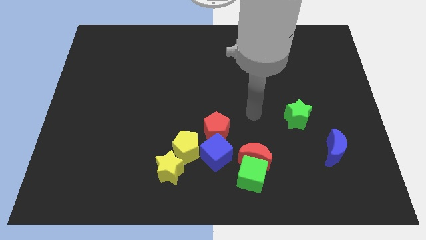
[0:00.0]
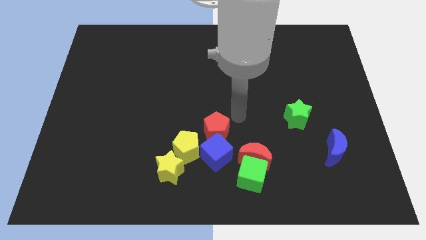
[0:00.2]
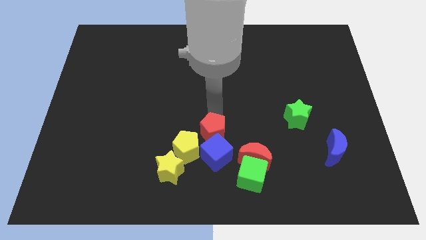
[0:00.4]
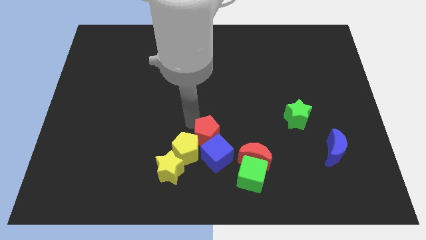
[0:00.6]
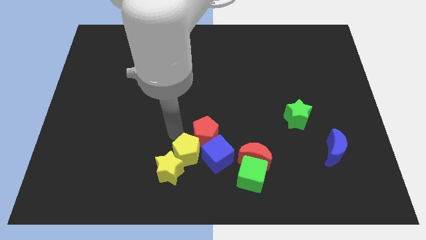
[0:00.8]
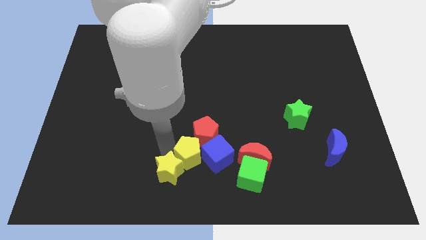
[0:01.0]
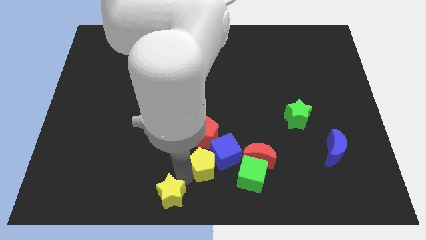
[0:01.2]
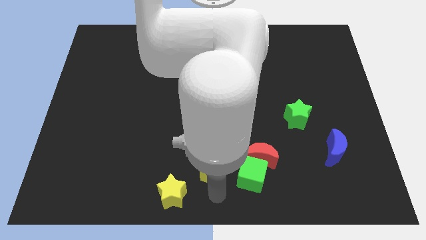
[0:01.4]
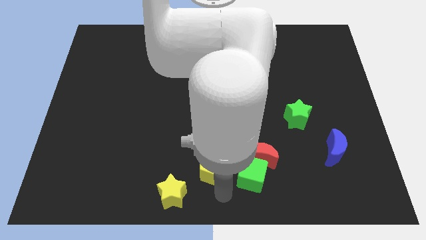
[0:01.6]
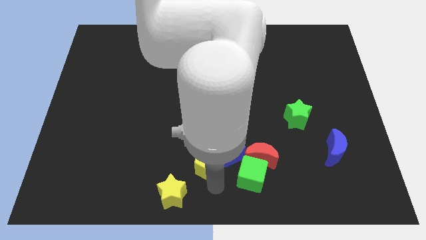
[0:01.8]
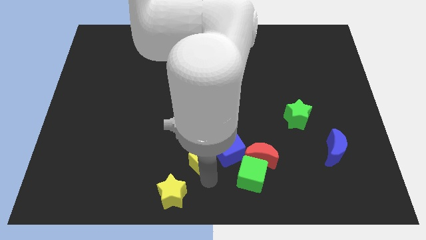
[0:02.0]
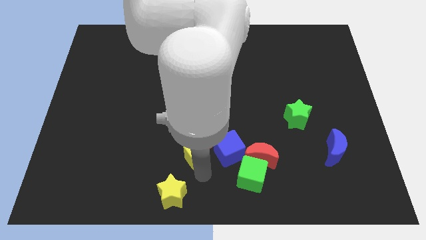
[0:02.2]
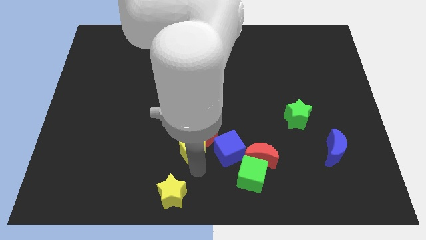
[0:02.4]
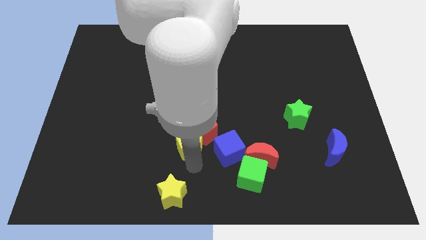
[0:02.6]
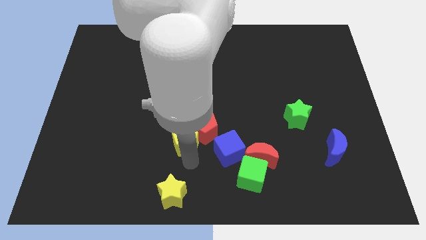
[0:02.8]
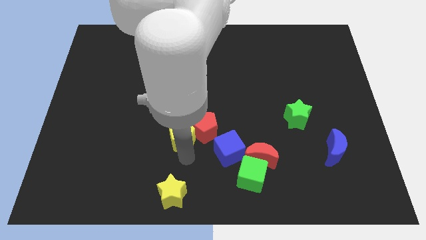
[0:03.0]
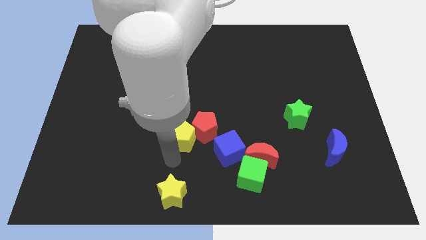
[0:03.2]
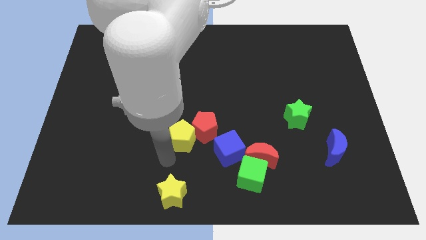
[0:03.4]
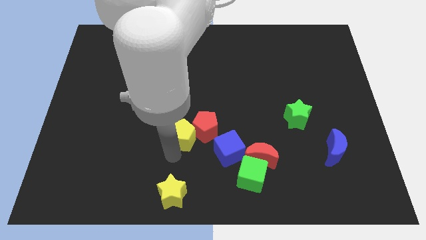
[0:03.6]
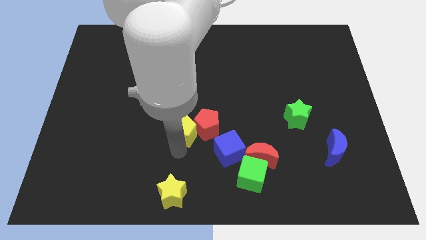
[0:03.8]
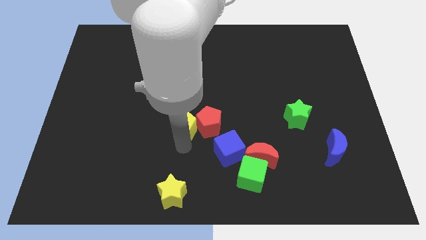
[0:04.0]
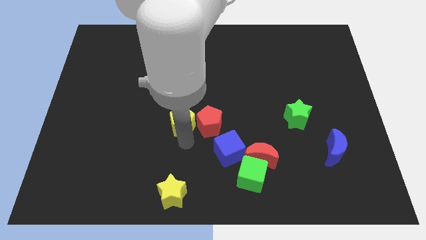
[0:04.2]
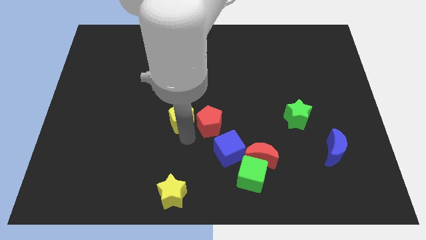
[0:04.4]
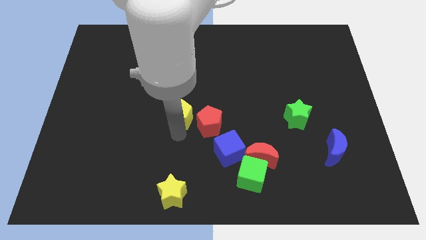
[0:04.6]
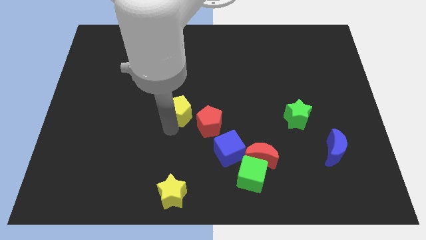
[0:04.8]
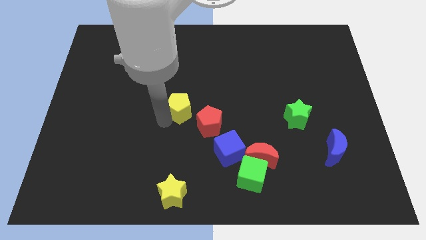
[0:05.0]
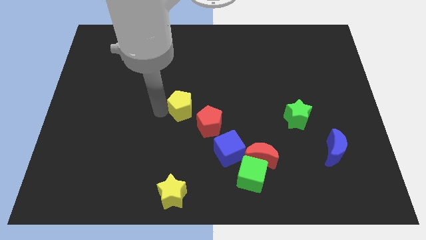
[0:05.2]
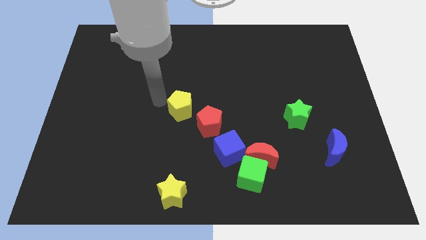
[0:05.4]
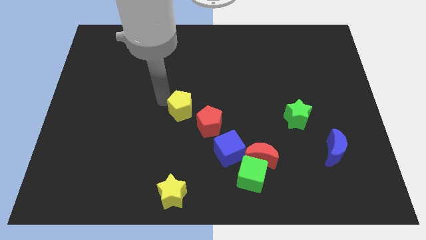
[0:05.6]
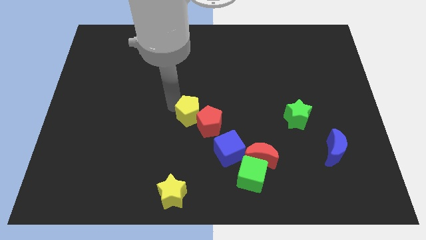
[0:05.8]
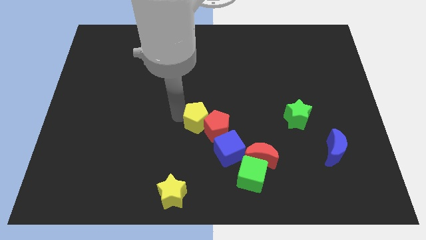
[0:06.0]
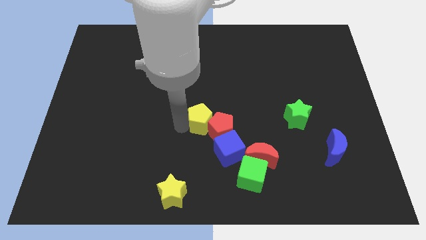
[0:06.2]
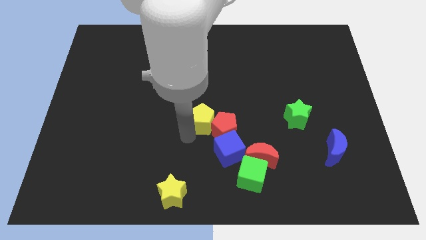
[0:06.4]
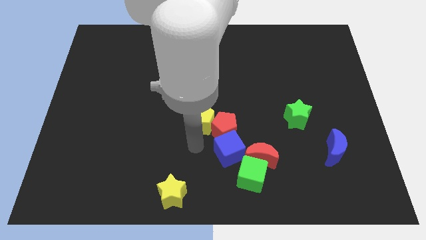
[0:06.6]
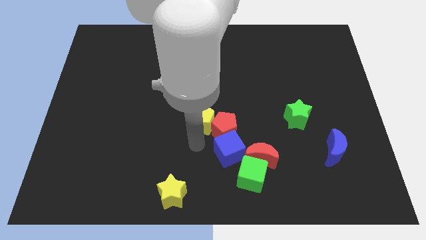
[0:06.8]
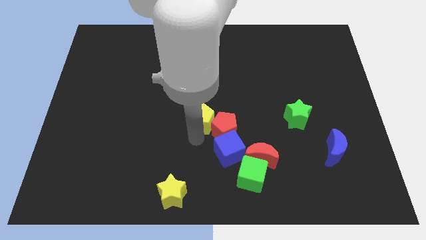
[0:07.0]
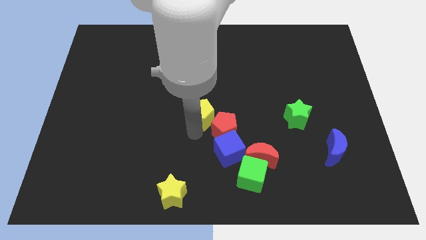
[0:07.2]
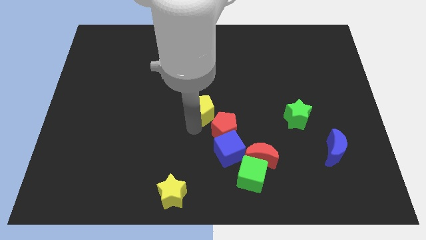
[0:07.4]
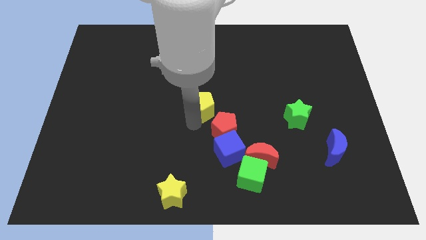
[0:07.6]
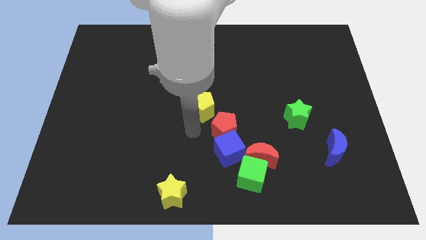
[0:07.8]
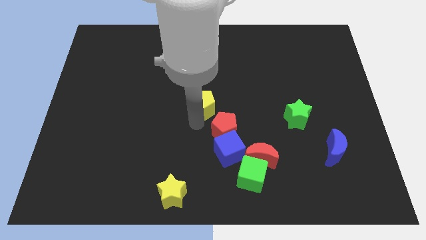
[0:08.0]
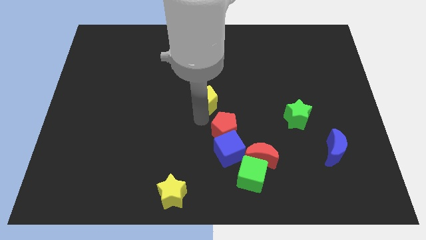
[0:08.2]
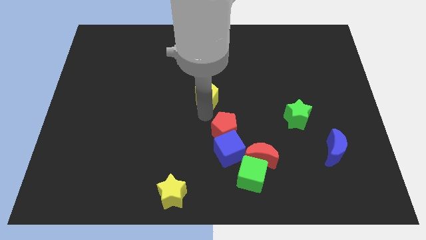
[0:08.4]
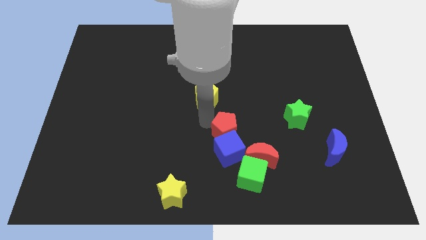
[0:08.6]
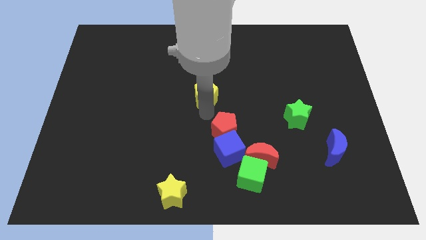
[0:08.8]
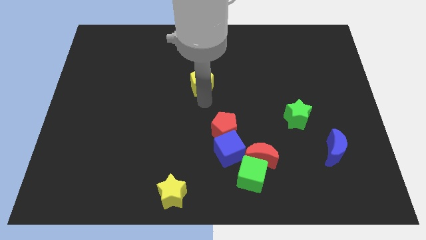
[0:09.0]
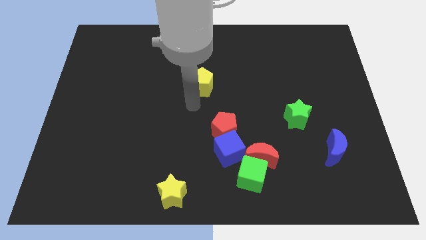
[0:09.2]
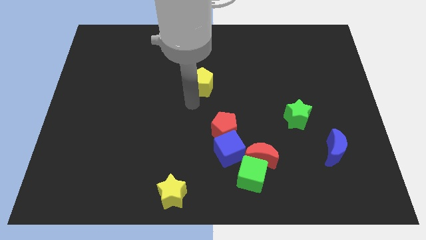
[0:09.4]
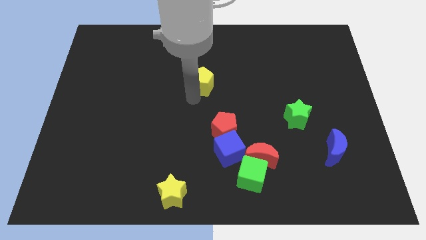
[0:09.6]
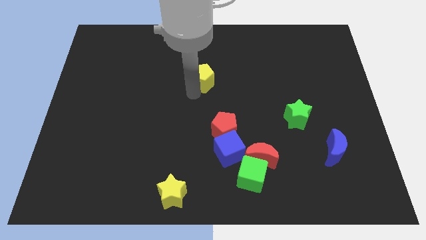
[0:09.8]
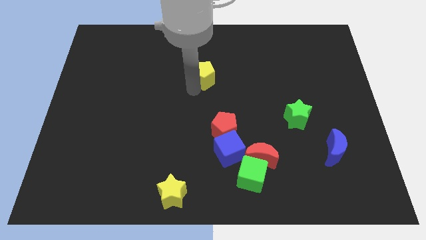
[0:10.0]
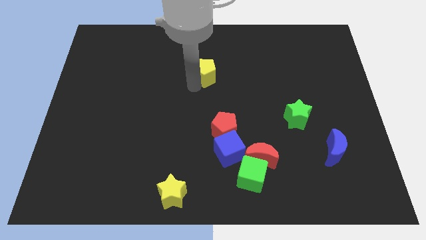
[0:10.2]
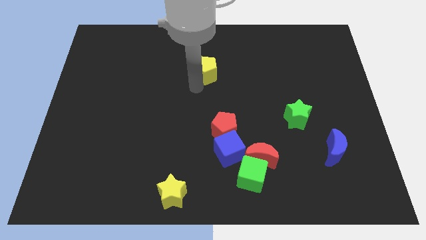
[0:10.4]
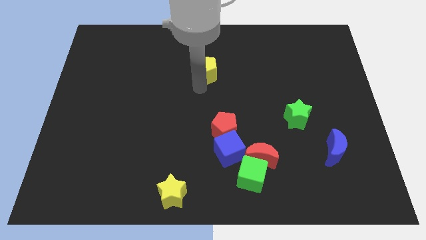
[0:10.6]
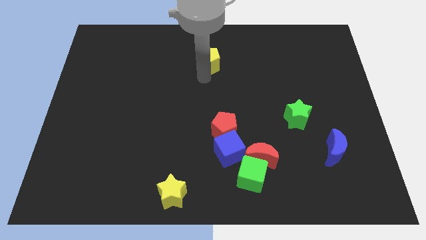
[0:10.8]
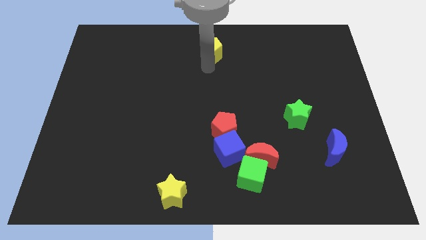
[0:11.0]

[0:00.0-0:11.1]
push the yellow pentagon to the towards your base

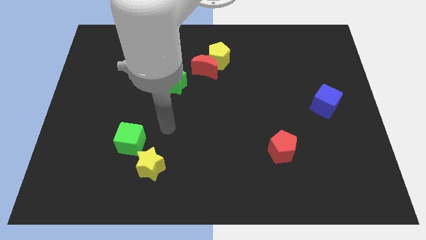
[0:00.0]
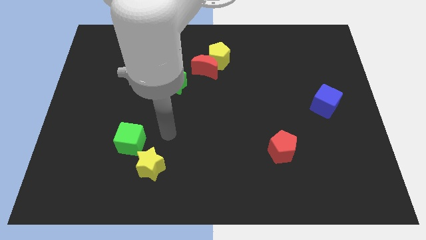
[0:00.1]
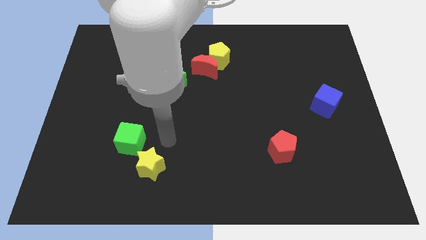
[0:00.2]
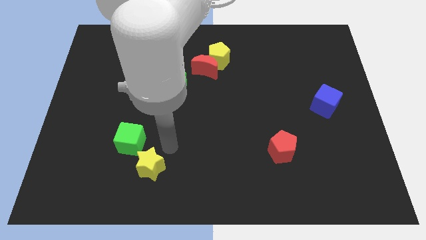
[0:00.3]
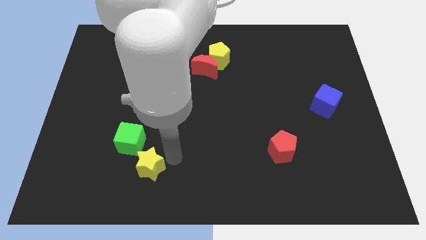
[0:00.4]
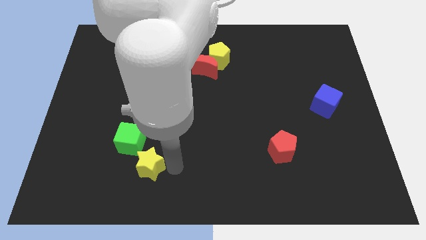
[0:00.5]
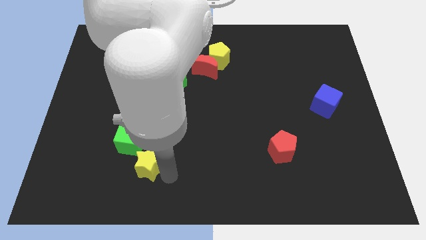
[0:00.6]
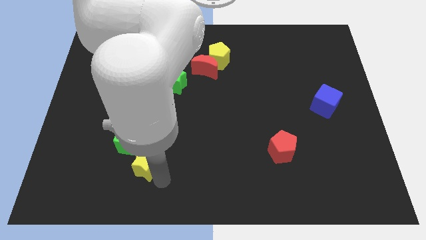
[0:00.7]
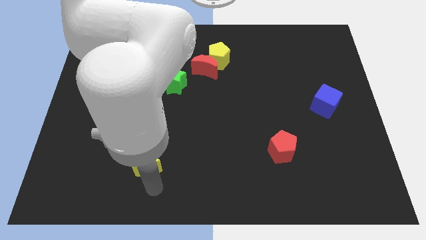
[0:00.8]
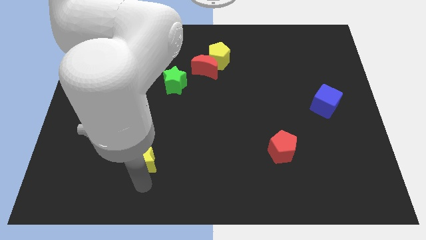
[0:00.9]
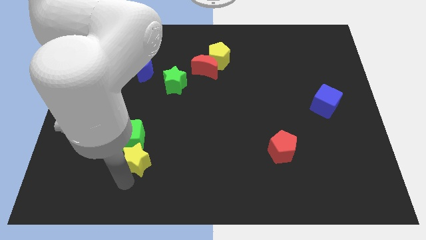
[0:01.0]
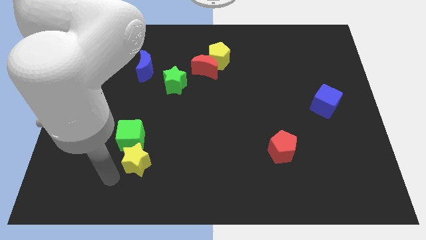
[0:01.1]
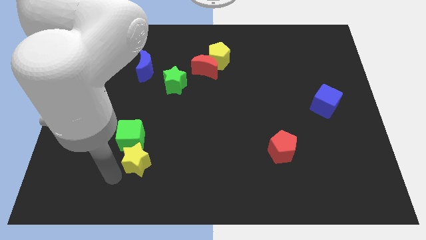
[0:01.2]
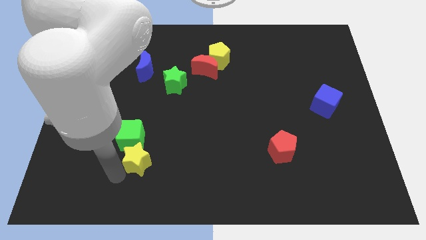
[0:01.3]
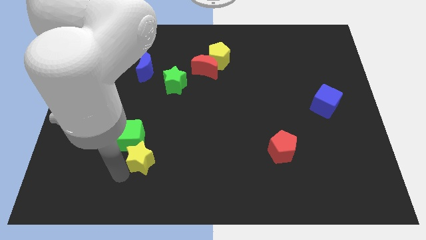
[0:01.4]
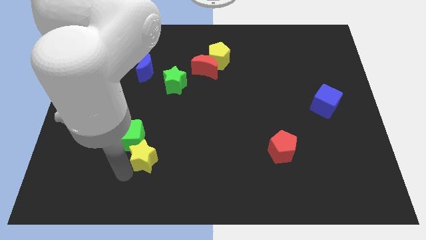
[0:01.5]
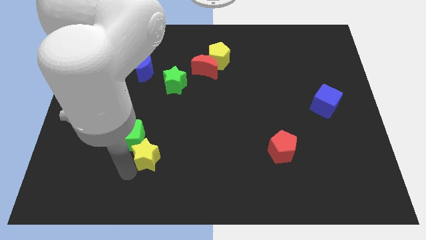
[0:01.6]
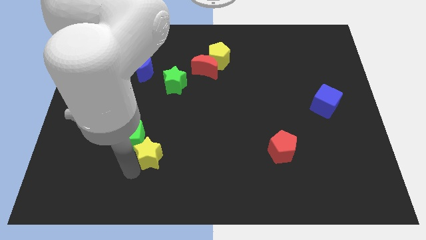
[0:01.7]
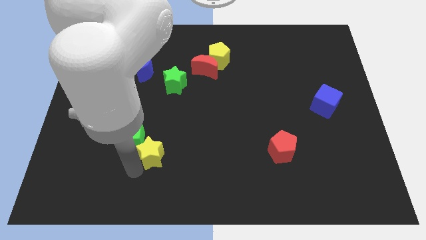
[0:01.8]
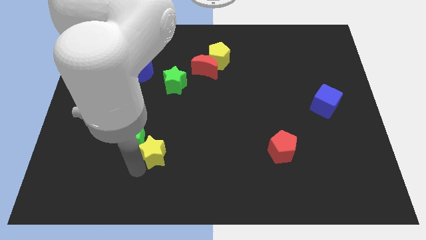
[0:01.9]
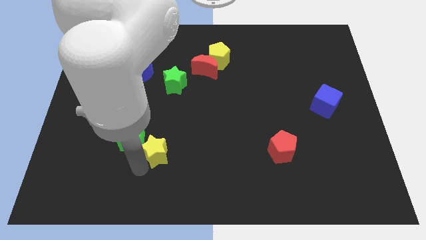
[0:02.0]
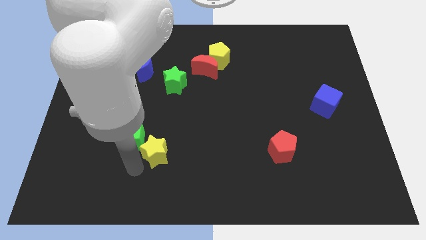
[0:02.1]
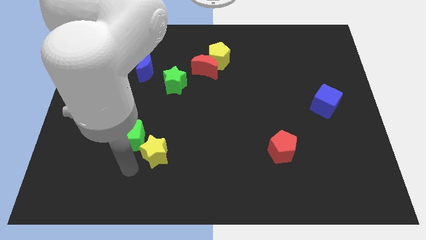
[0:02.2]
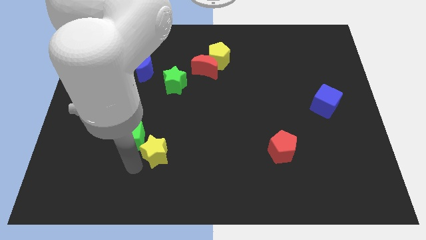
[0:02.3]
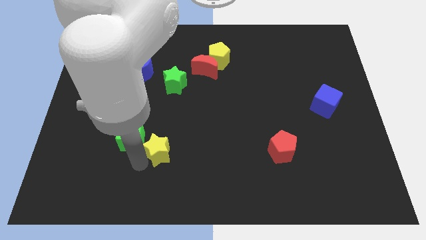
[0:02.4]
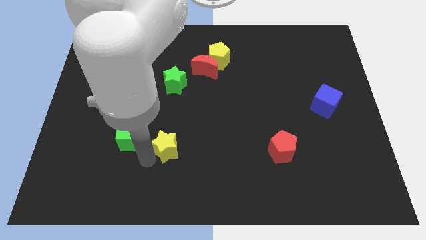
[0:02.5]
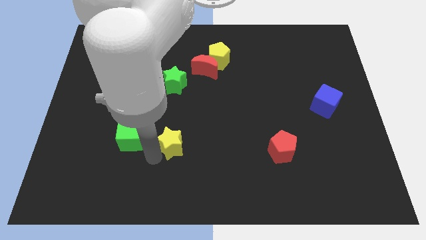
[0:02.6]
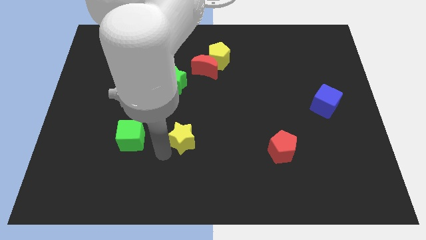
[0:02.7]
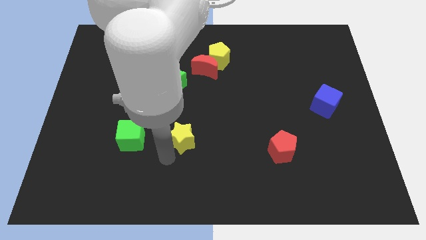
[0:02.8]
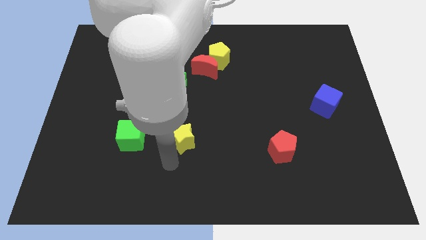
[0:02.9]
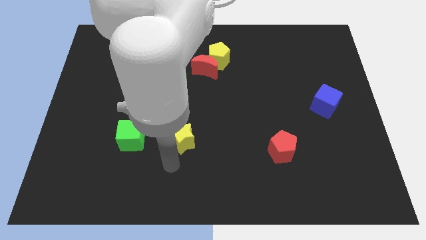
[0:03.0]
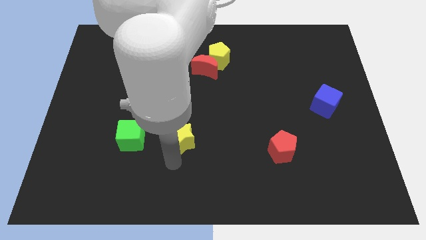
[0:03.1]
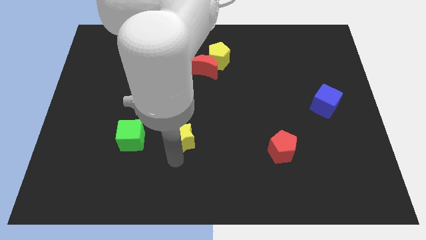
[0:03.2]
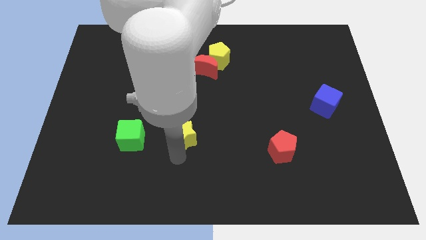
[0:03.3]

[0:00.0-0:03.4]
slide the yellow star to the center of the board
